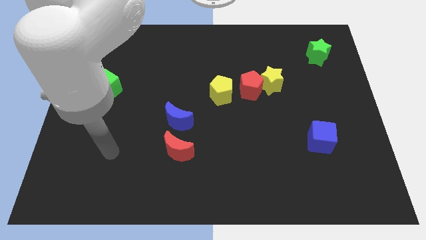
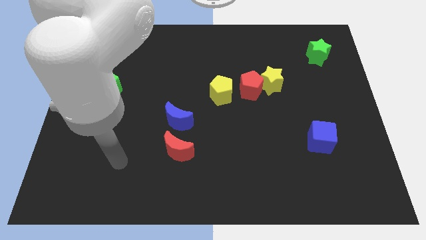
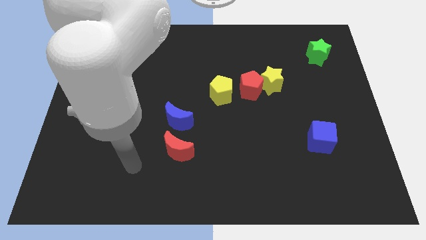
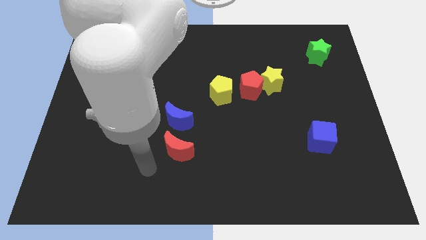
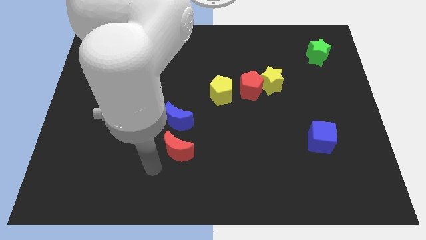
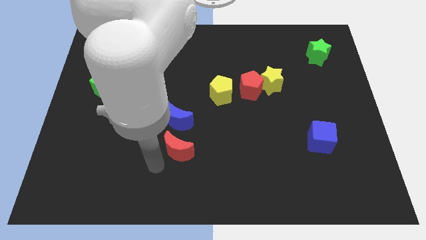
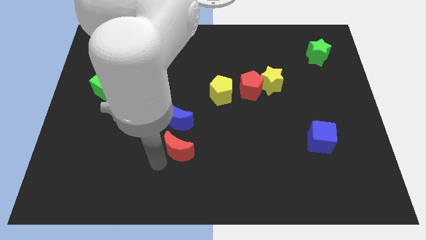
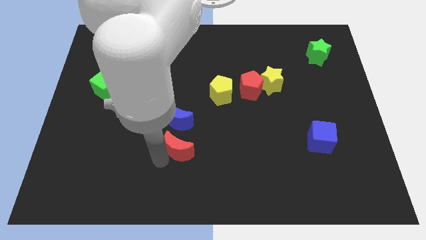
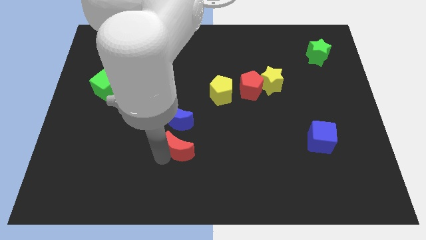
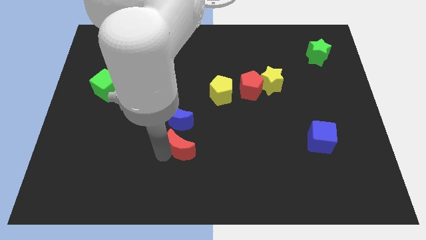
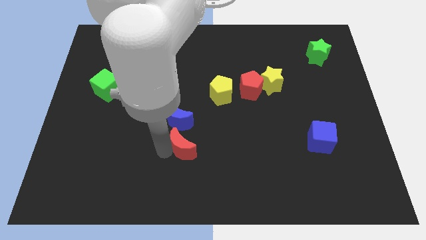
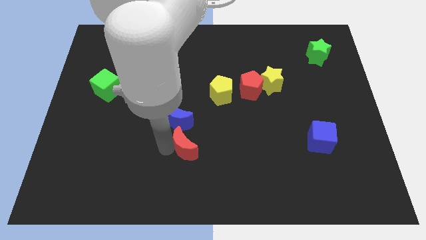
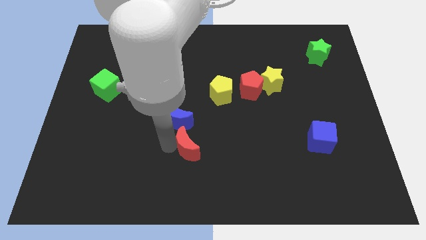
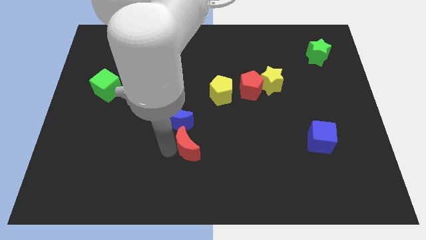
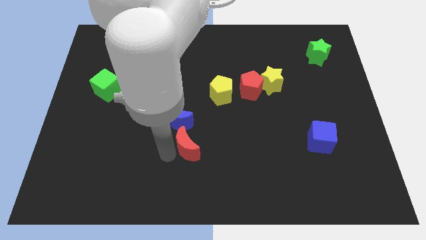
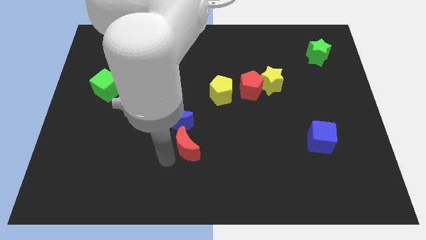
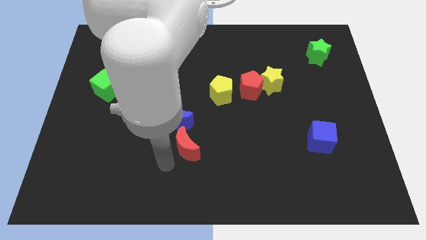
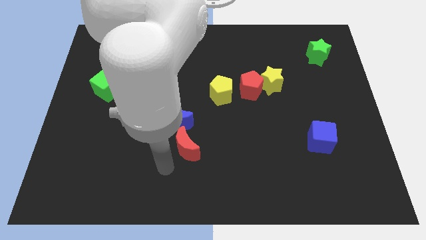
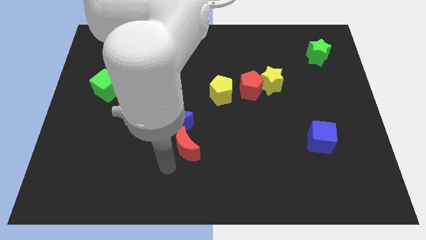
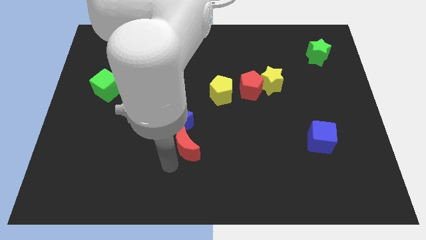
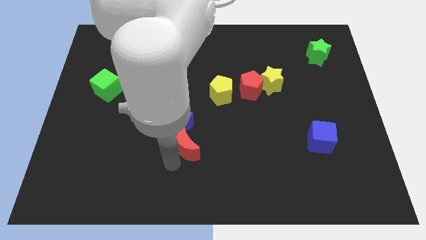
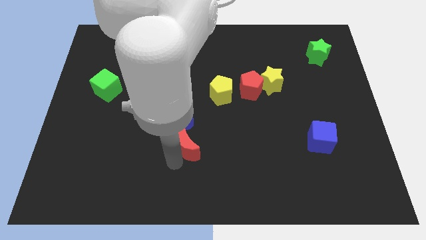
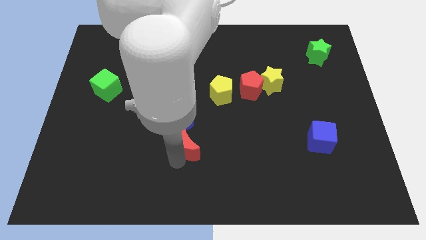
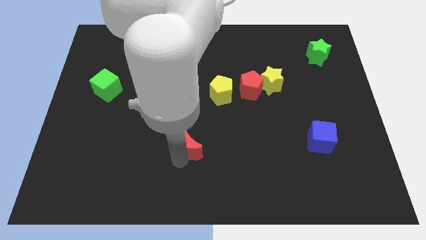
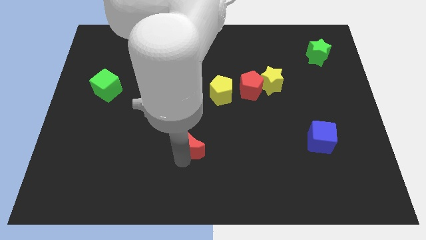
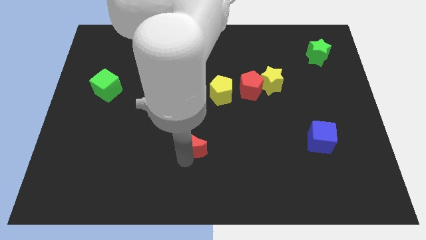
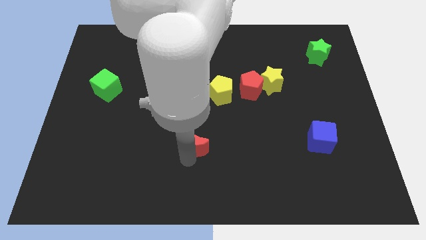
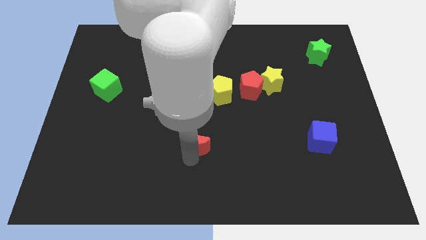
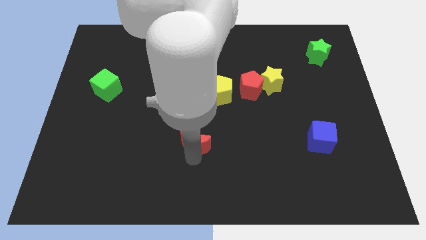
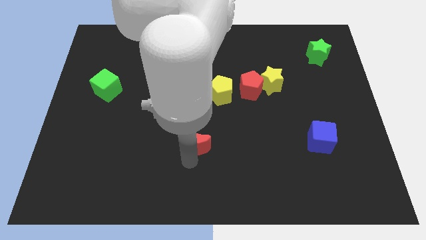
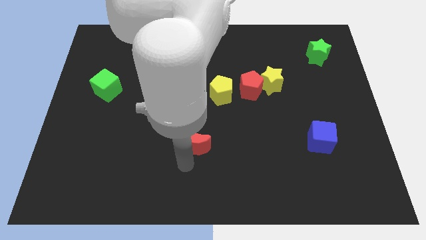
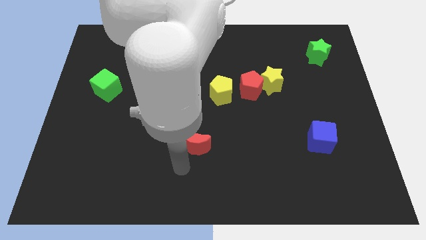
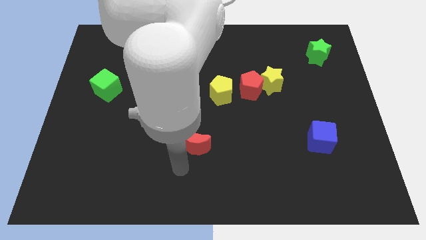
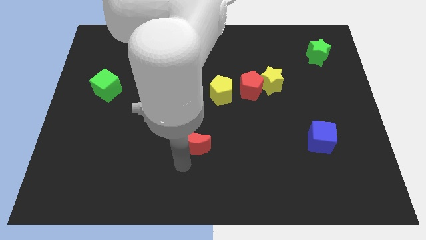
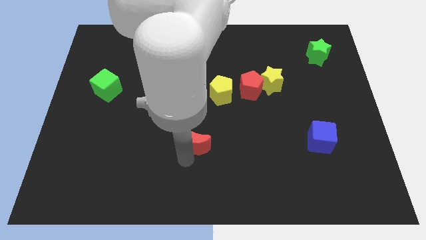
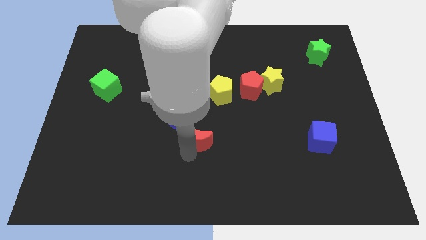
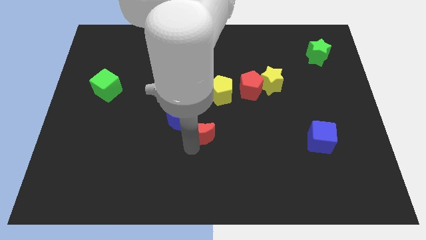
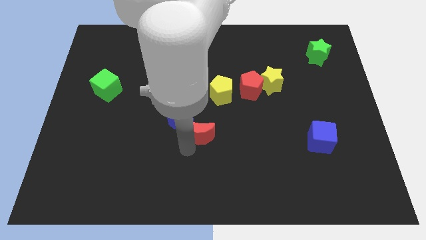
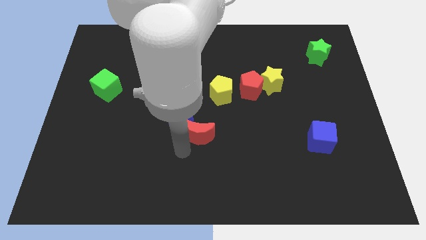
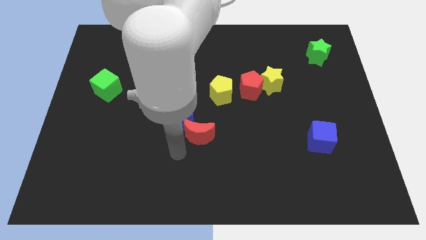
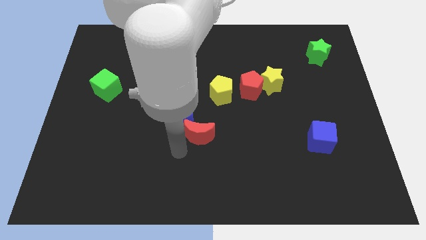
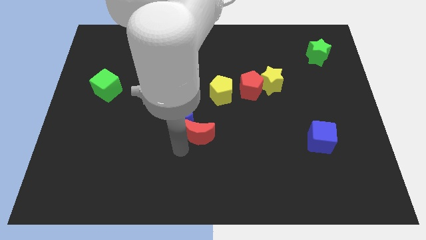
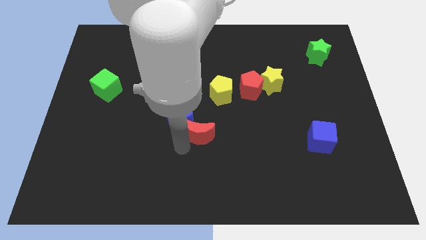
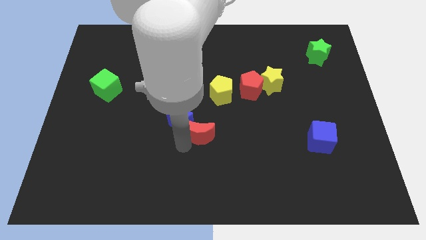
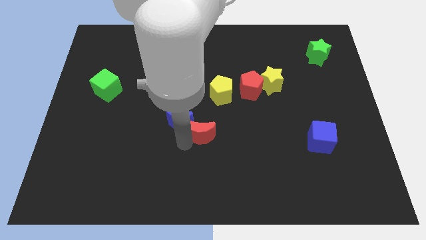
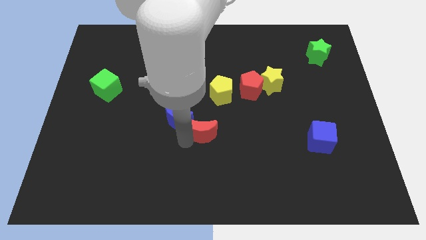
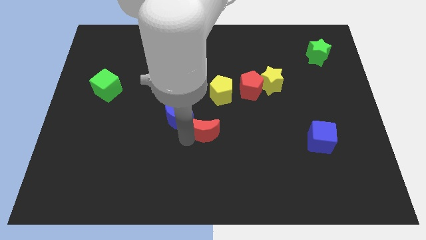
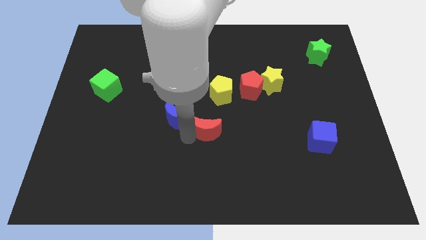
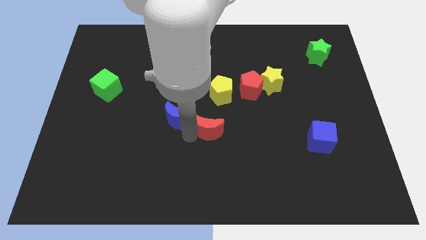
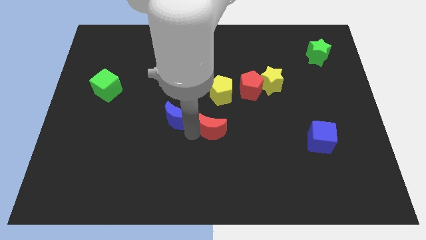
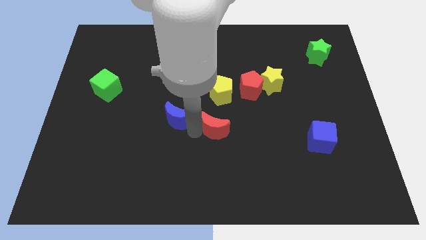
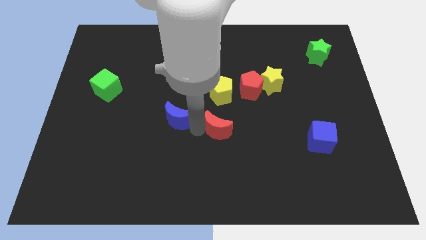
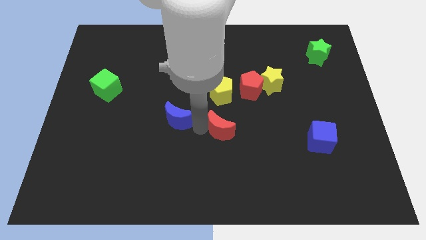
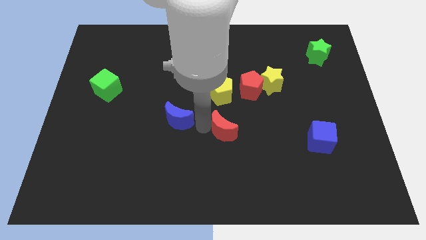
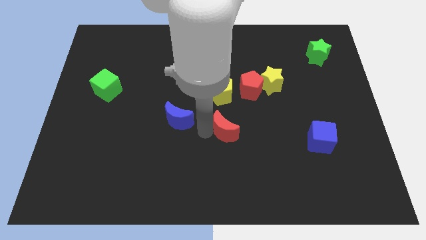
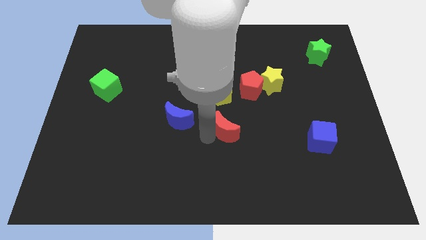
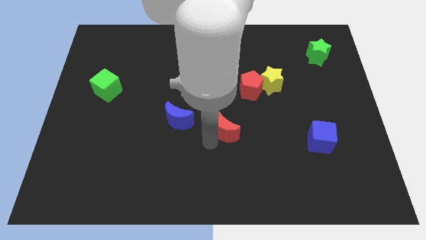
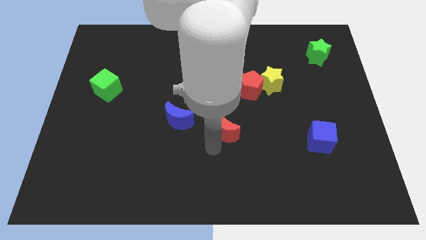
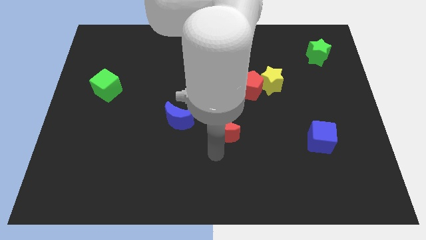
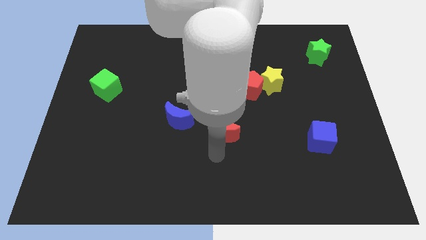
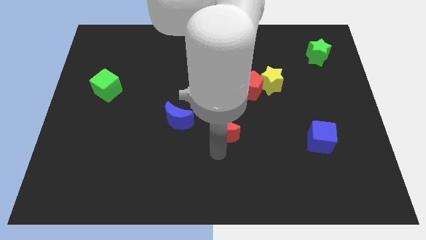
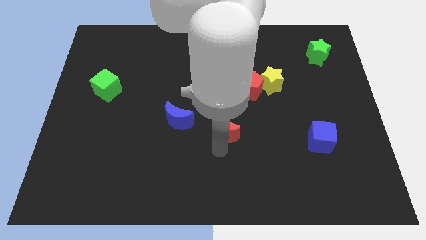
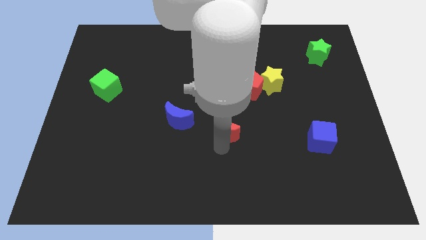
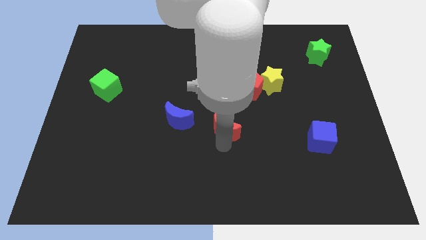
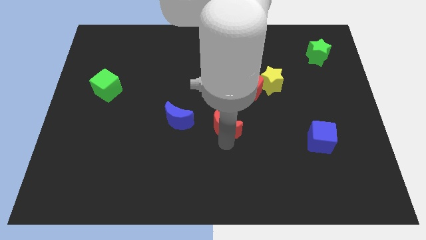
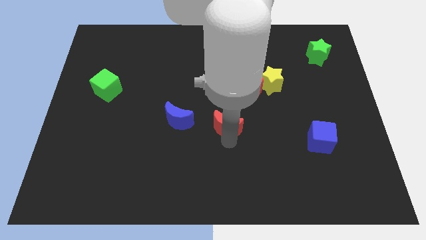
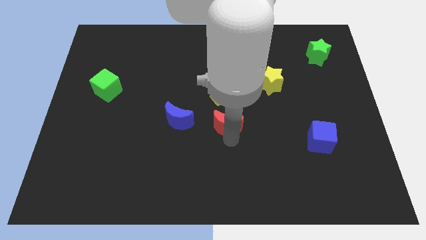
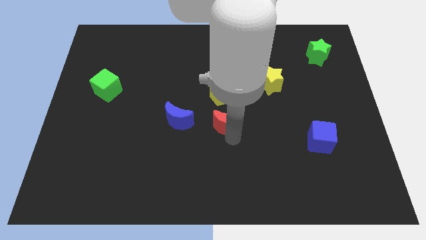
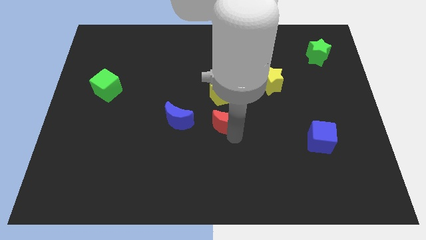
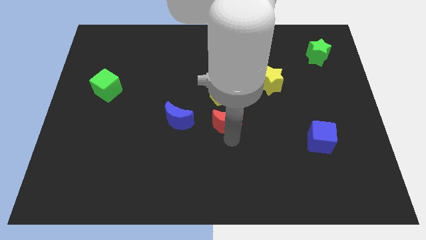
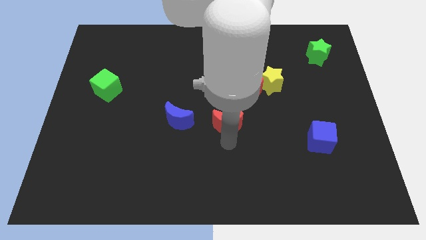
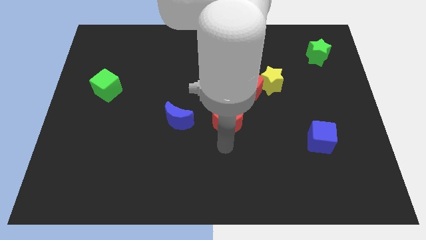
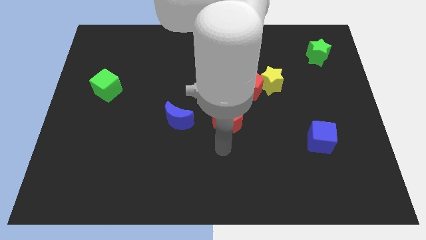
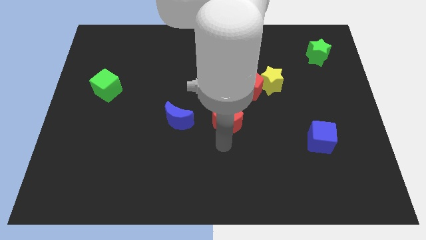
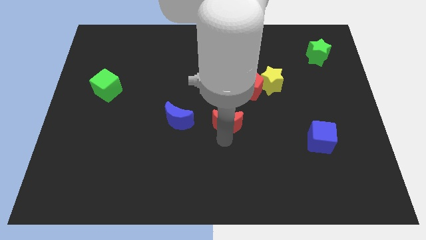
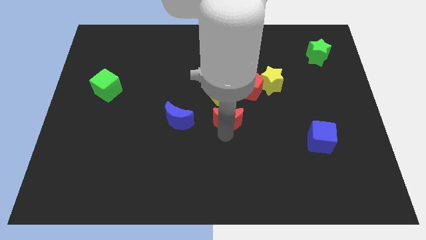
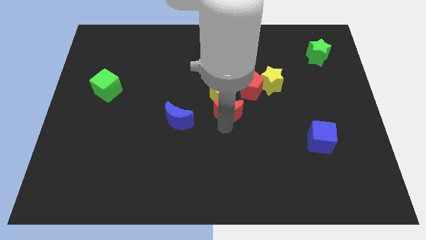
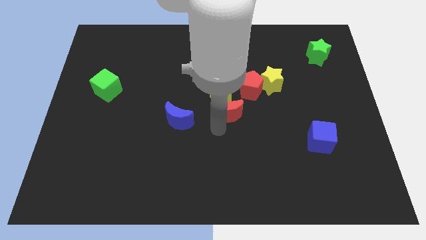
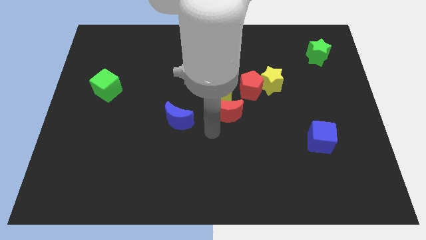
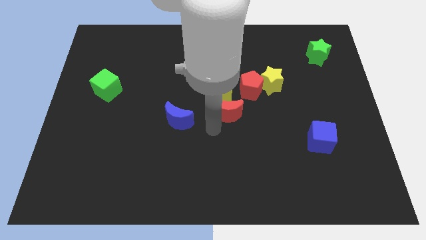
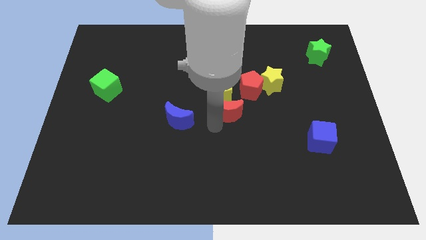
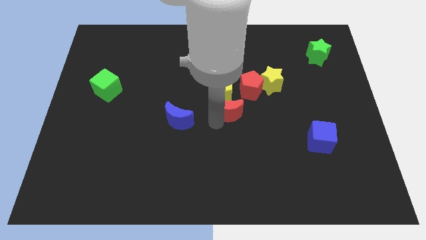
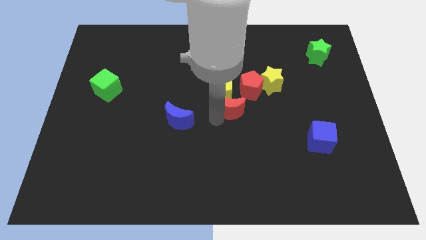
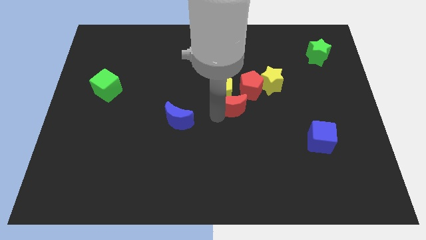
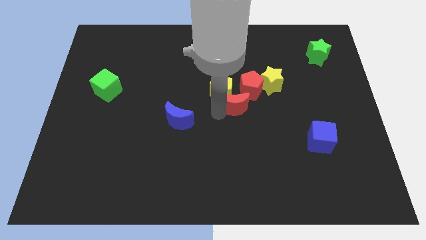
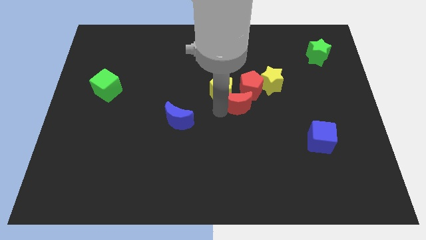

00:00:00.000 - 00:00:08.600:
move the red moon next to the red pentagon
